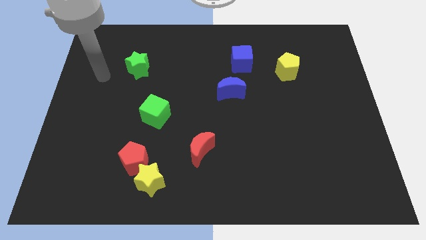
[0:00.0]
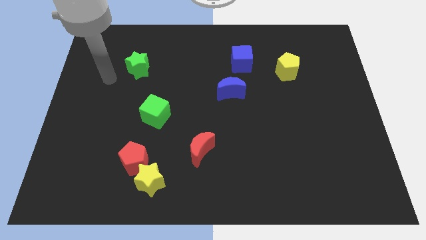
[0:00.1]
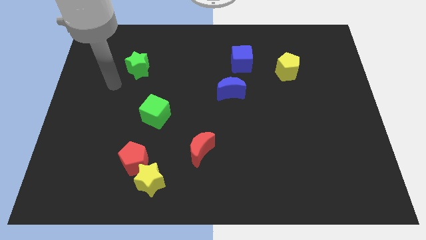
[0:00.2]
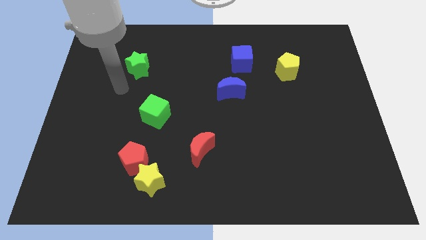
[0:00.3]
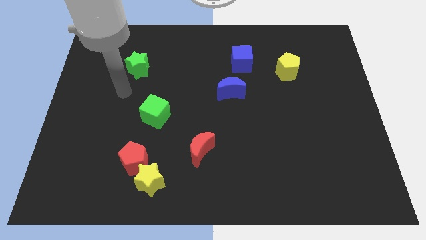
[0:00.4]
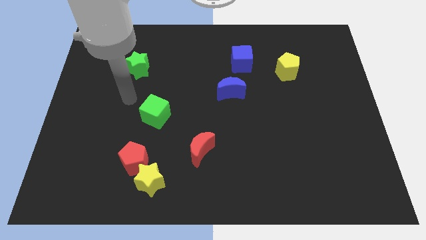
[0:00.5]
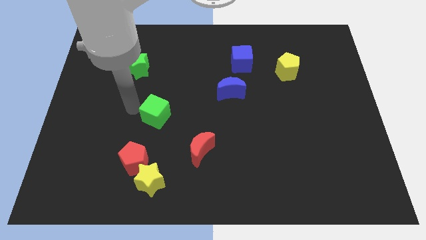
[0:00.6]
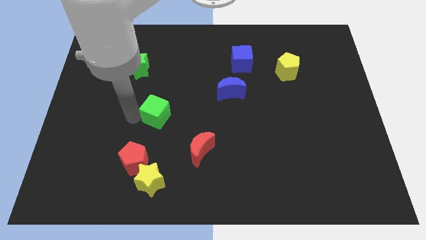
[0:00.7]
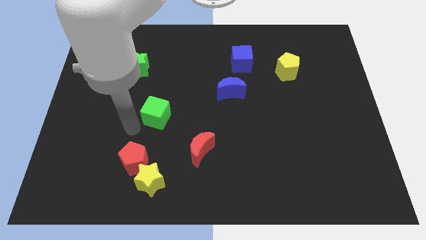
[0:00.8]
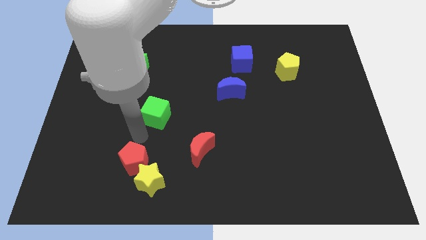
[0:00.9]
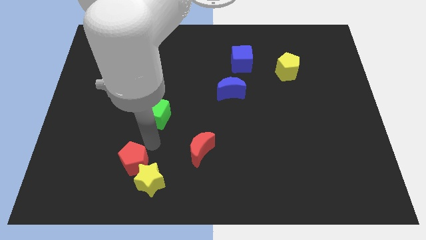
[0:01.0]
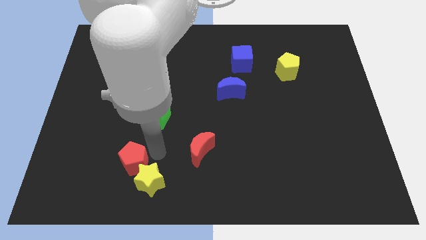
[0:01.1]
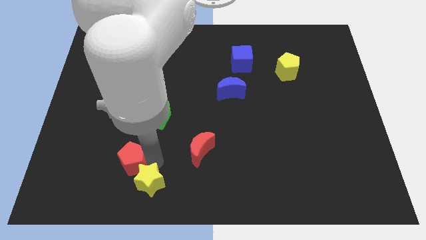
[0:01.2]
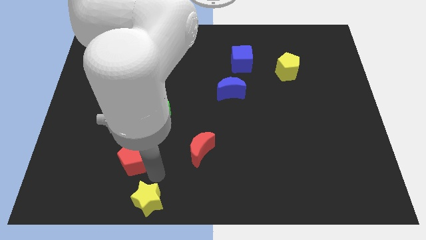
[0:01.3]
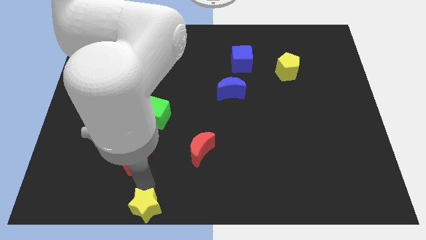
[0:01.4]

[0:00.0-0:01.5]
pull the red pentagon apart from the yellow star

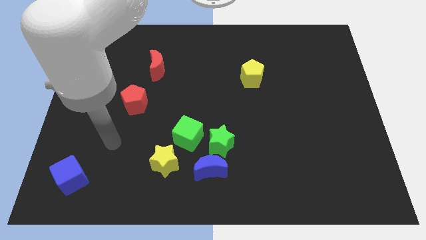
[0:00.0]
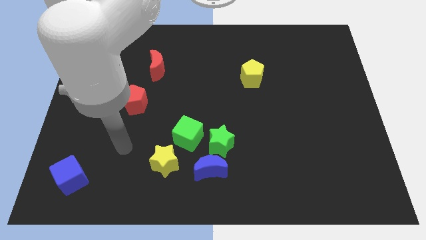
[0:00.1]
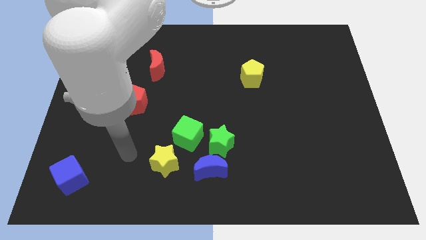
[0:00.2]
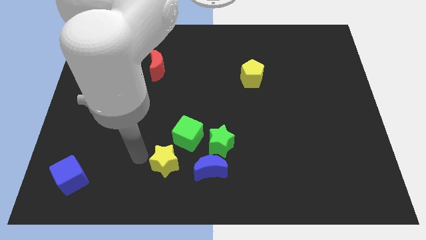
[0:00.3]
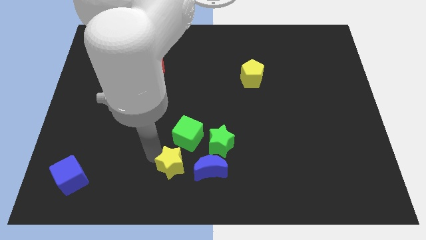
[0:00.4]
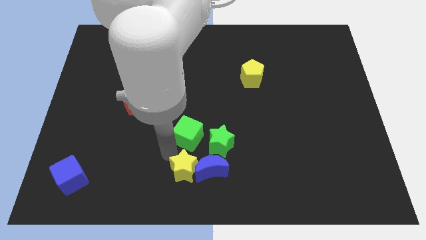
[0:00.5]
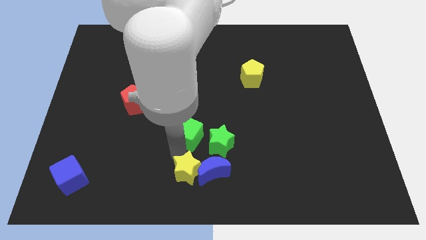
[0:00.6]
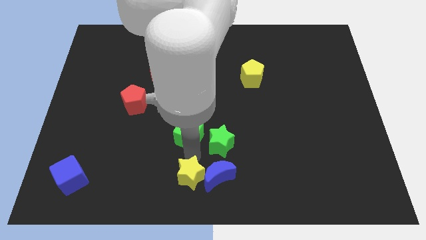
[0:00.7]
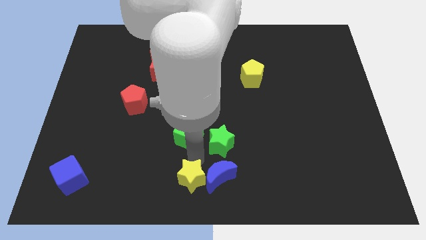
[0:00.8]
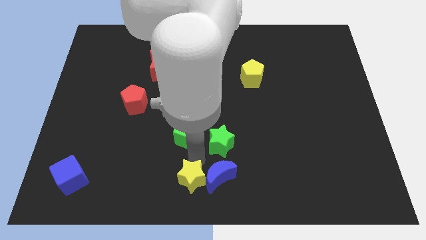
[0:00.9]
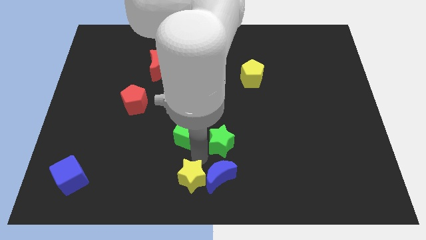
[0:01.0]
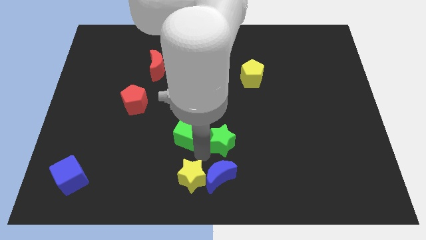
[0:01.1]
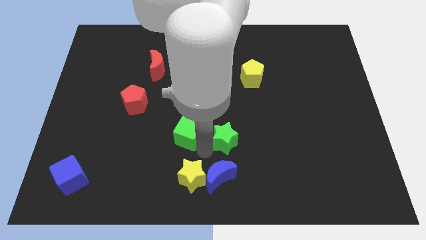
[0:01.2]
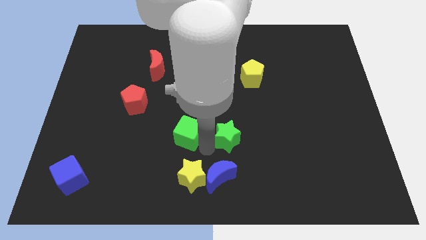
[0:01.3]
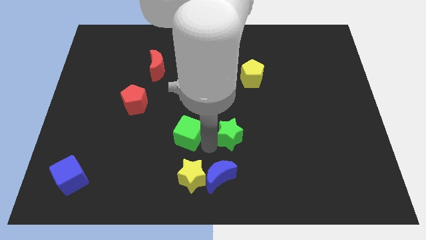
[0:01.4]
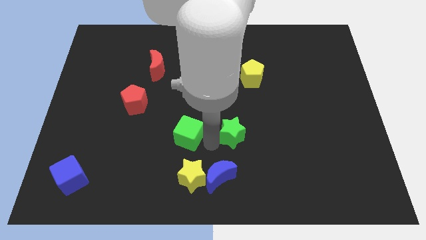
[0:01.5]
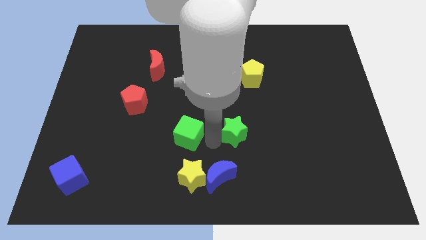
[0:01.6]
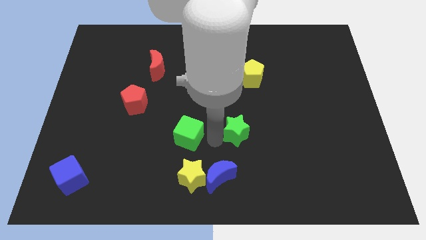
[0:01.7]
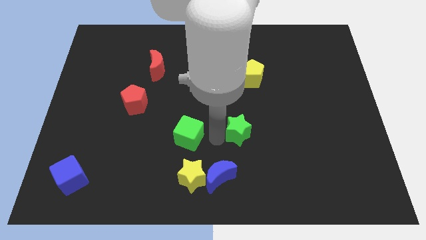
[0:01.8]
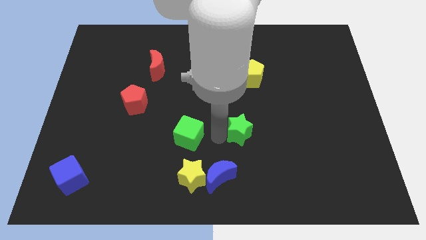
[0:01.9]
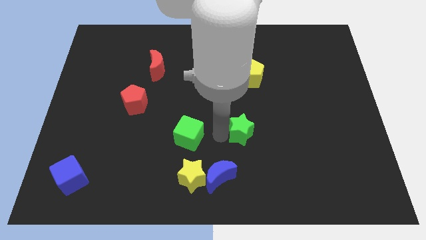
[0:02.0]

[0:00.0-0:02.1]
separate the green star from the blue moon and green cube

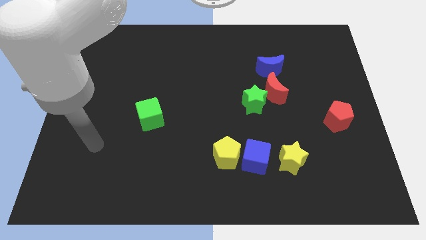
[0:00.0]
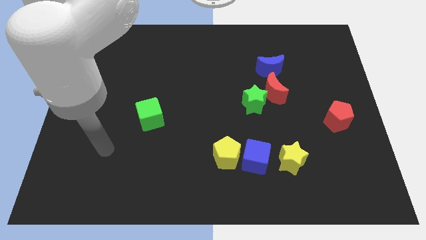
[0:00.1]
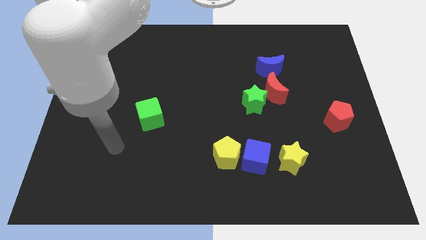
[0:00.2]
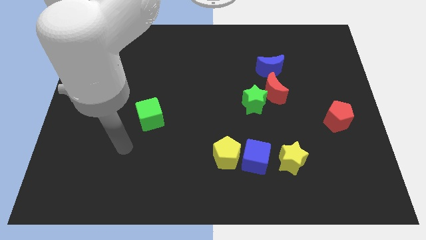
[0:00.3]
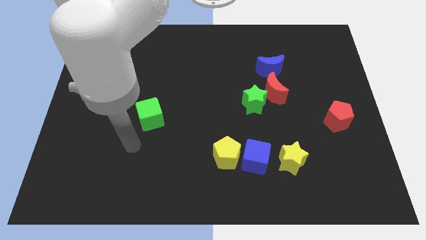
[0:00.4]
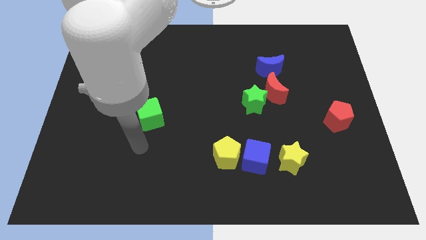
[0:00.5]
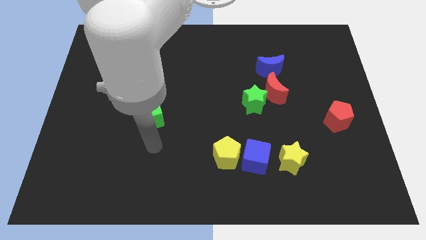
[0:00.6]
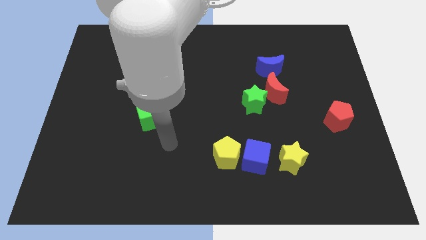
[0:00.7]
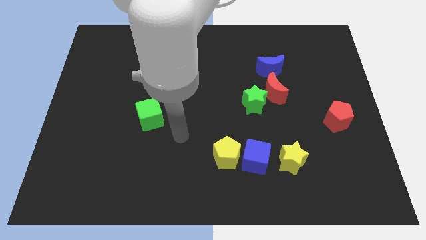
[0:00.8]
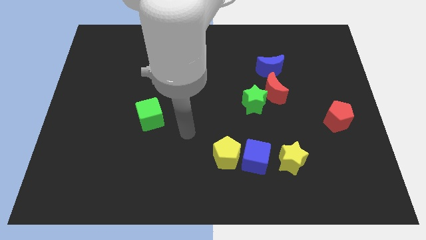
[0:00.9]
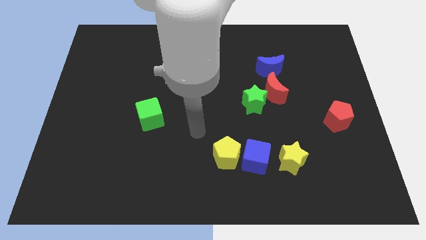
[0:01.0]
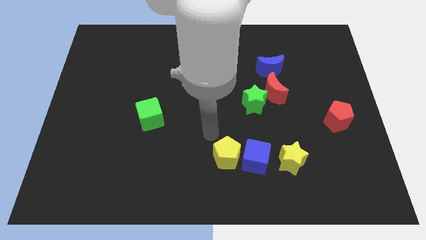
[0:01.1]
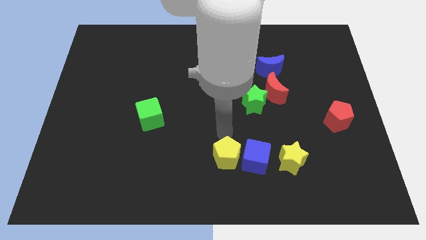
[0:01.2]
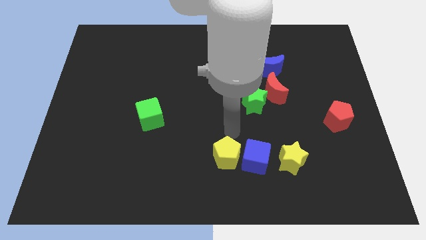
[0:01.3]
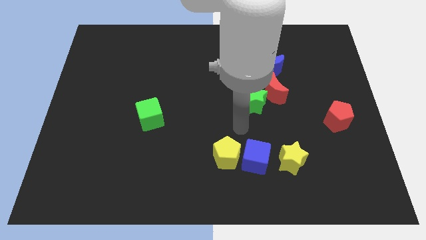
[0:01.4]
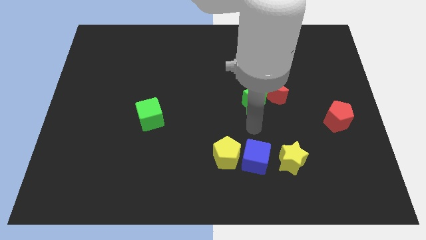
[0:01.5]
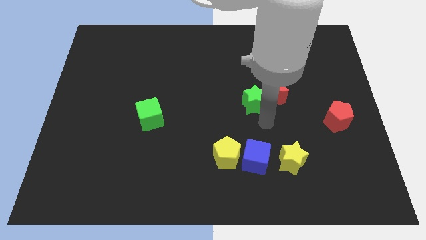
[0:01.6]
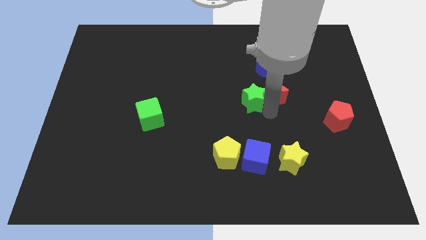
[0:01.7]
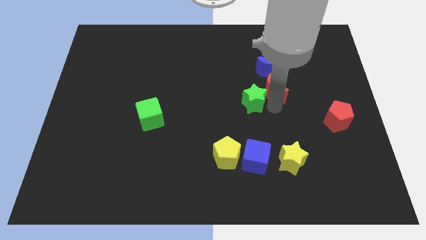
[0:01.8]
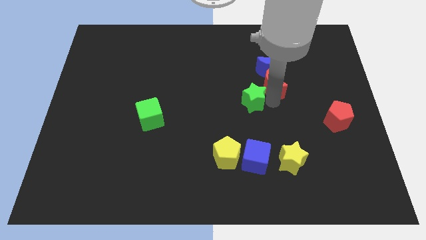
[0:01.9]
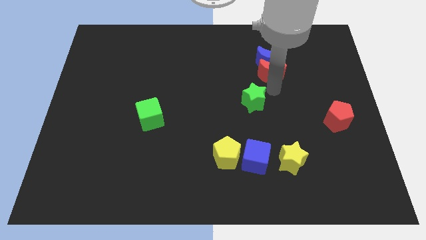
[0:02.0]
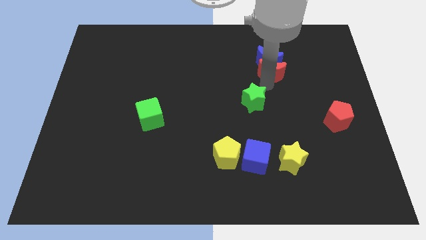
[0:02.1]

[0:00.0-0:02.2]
separate the green star from the red moon

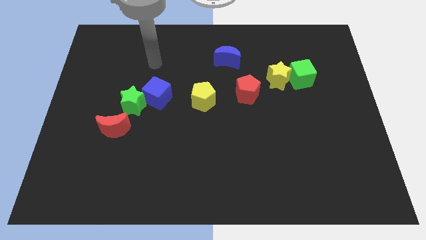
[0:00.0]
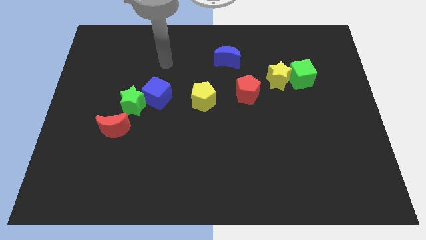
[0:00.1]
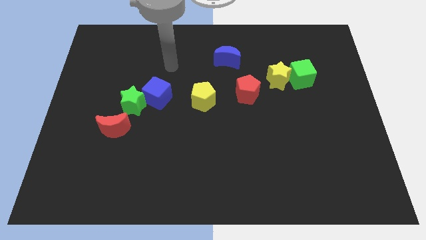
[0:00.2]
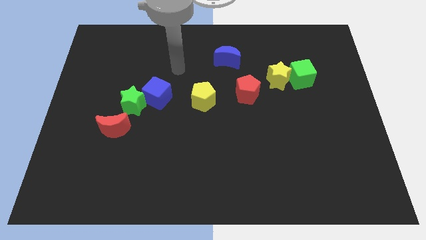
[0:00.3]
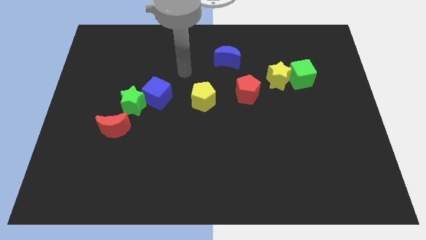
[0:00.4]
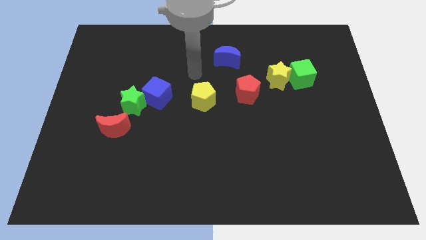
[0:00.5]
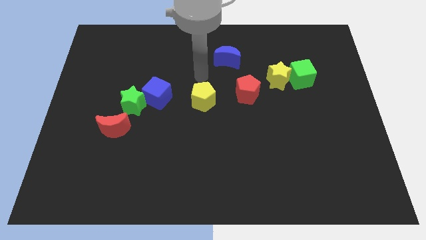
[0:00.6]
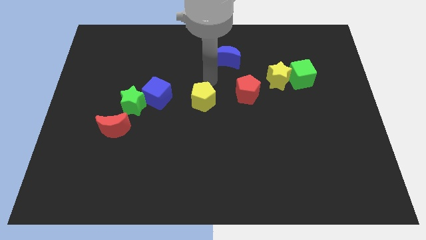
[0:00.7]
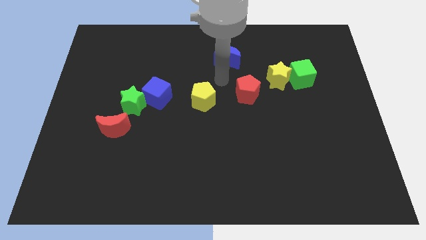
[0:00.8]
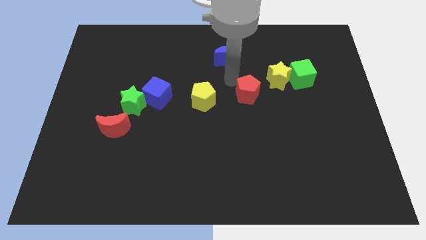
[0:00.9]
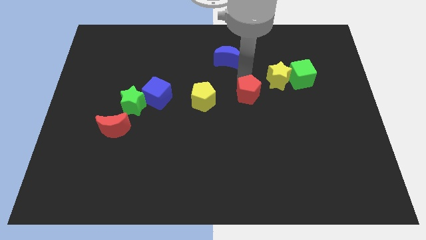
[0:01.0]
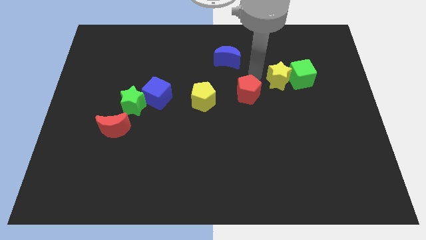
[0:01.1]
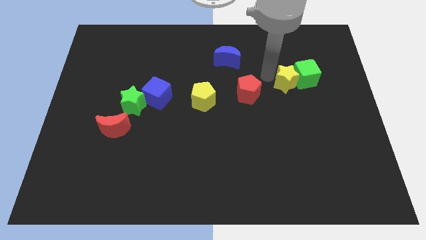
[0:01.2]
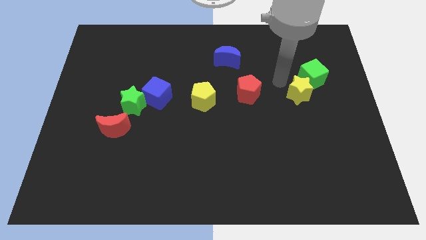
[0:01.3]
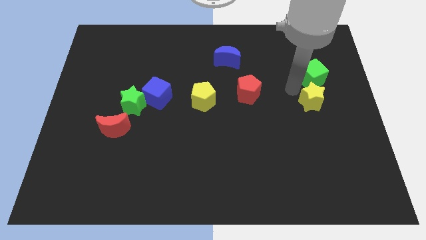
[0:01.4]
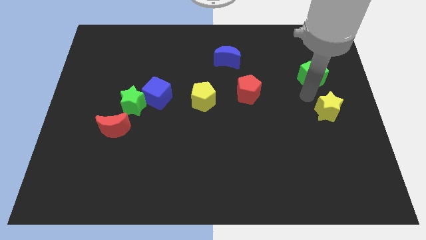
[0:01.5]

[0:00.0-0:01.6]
move the green cube away from the yellow star

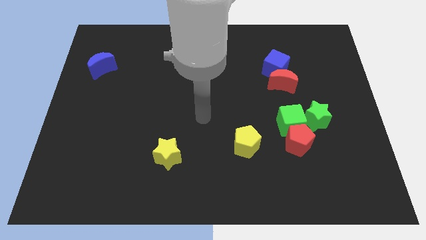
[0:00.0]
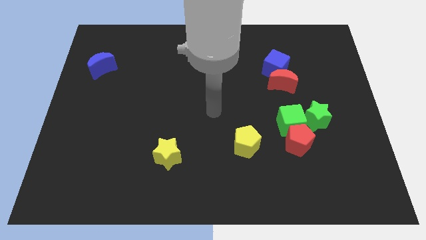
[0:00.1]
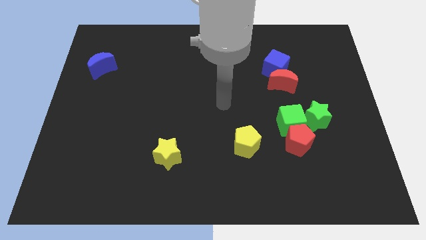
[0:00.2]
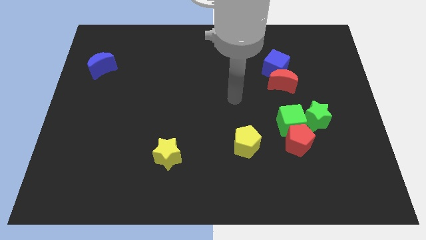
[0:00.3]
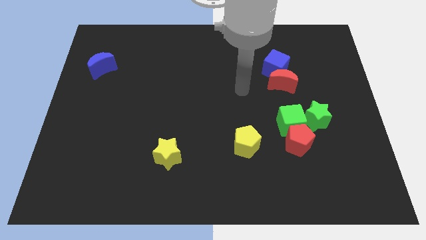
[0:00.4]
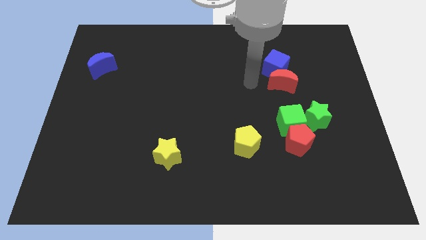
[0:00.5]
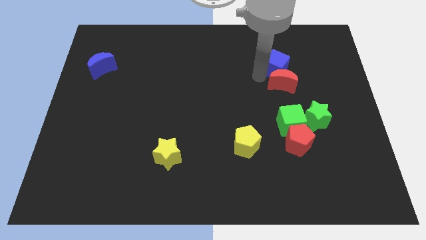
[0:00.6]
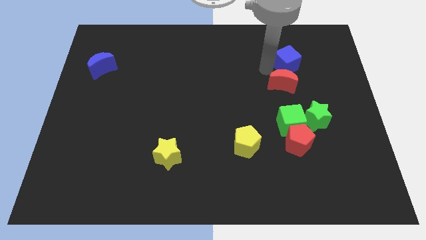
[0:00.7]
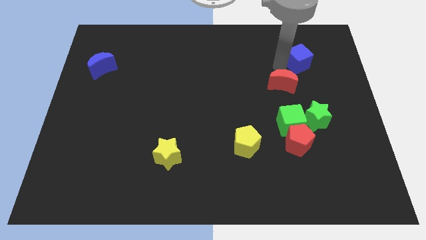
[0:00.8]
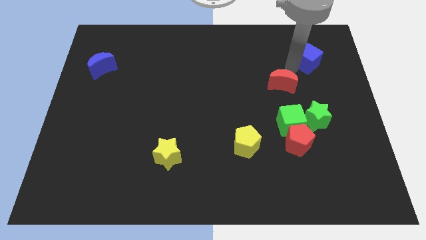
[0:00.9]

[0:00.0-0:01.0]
pull the red moon apart from the blue cube

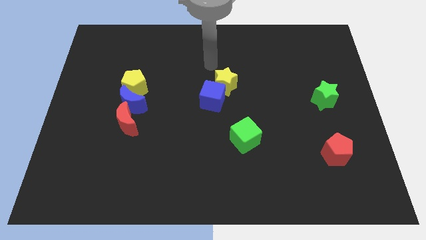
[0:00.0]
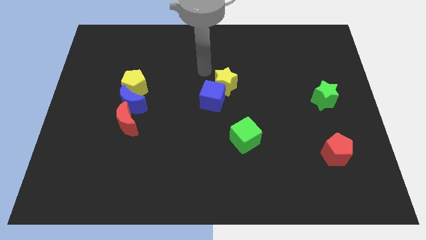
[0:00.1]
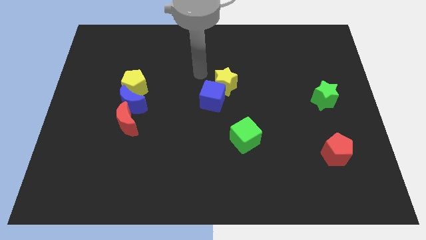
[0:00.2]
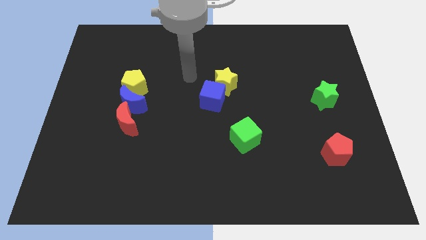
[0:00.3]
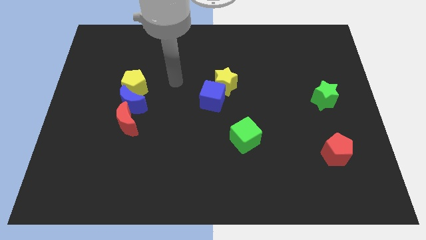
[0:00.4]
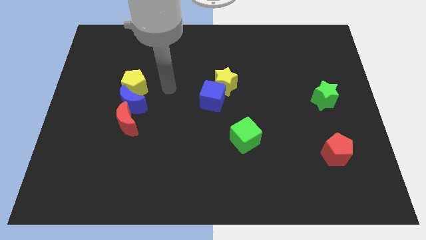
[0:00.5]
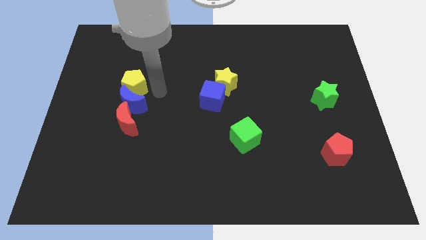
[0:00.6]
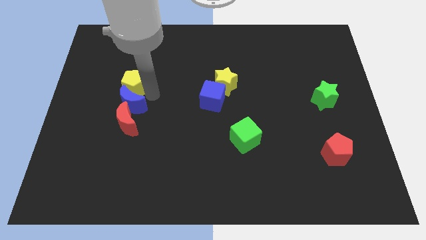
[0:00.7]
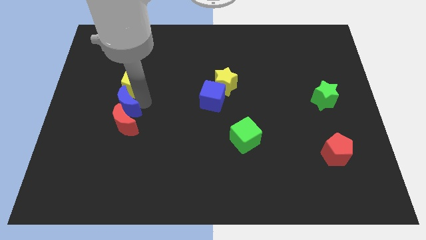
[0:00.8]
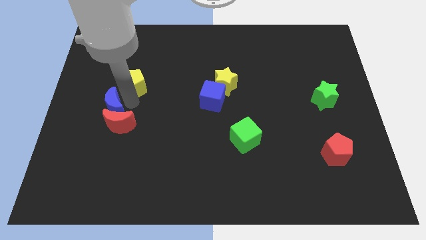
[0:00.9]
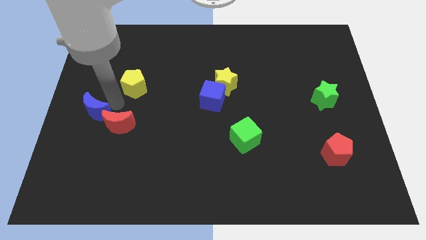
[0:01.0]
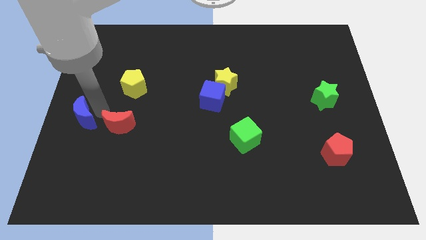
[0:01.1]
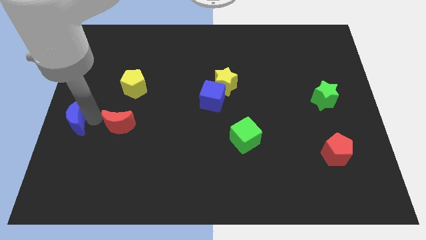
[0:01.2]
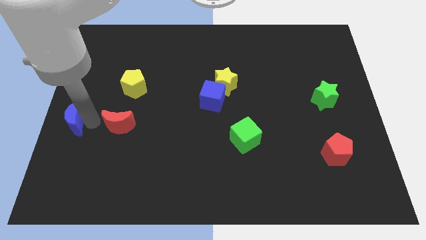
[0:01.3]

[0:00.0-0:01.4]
move the red moon away from the blue moon